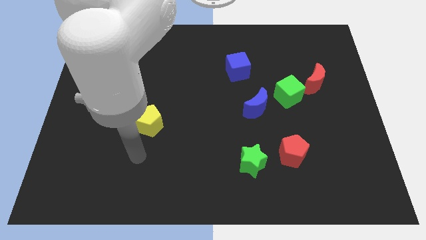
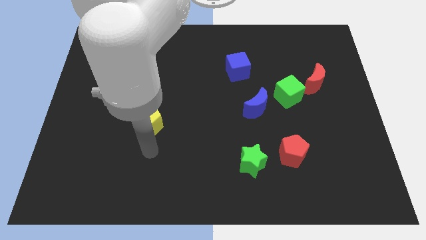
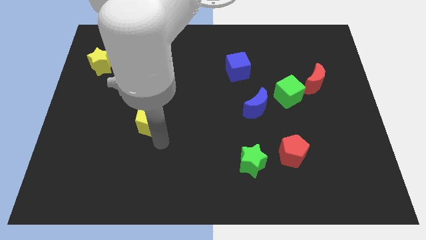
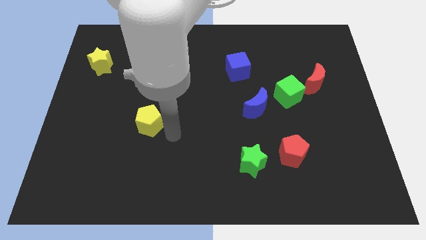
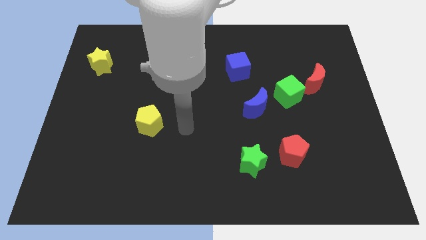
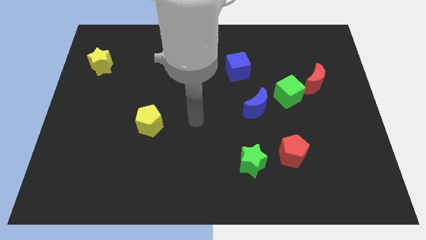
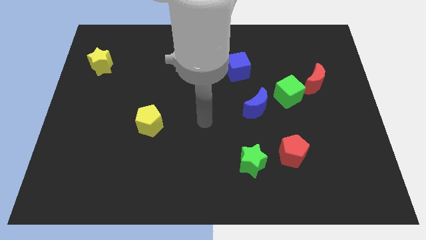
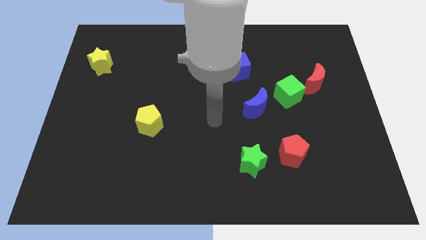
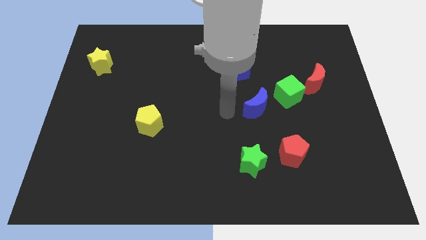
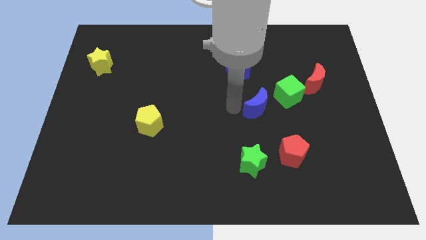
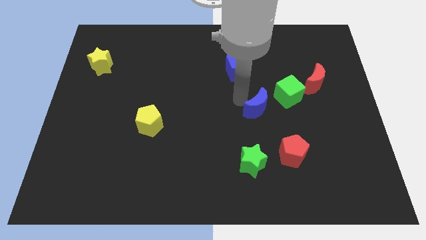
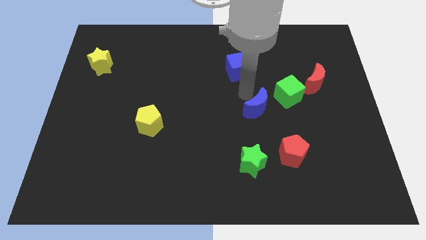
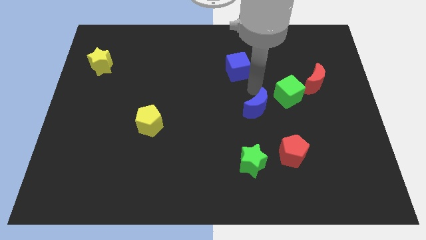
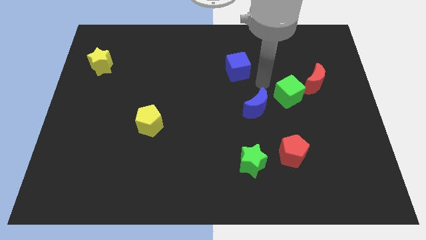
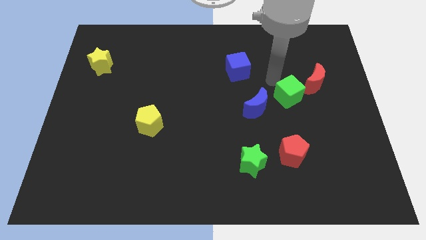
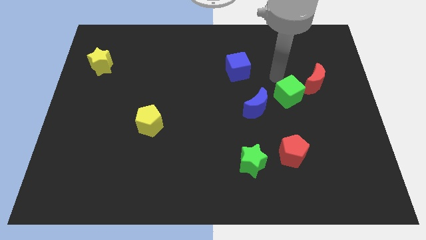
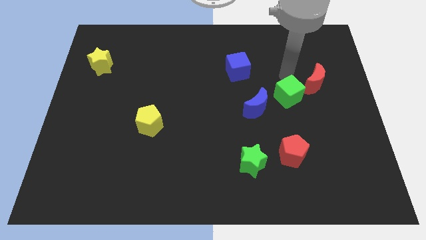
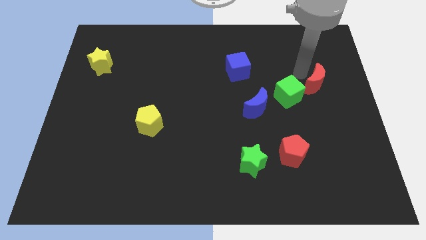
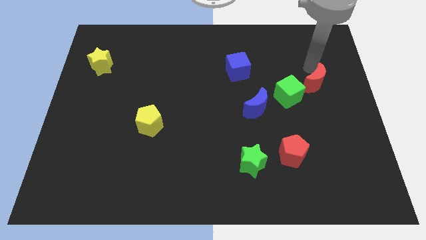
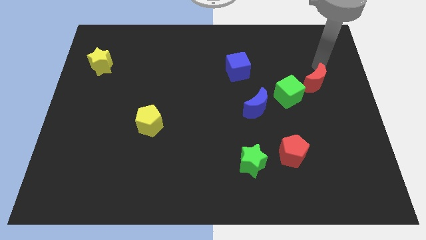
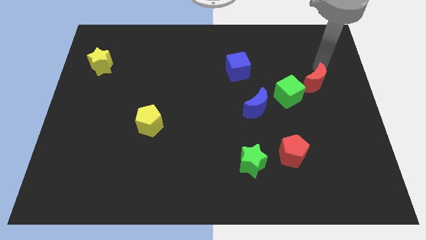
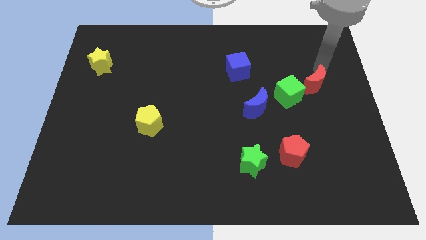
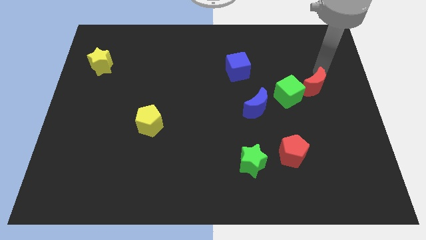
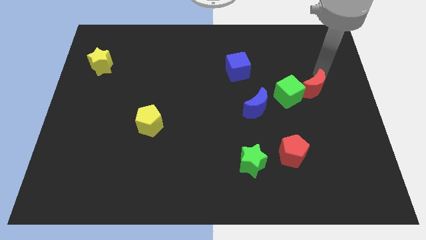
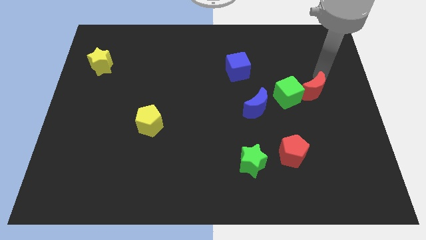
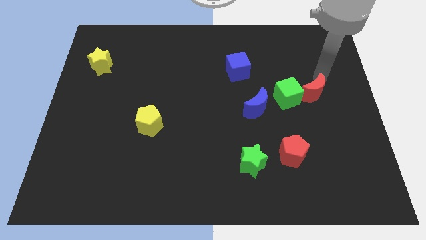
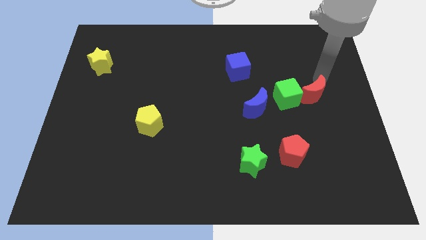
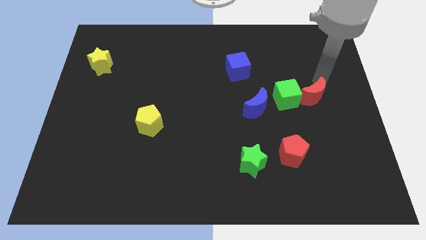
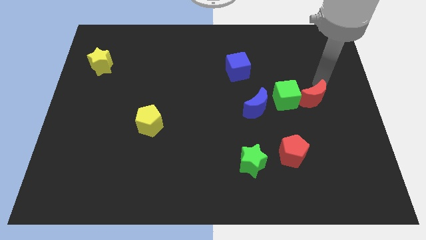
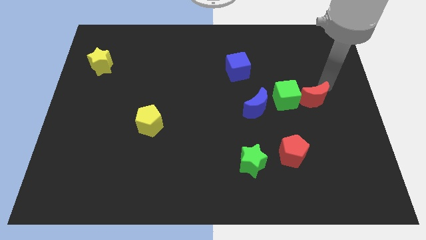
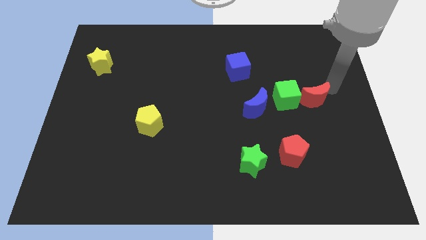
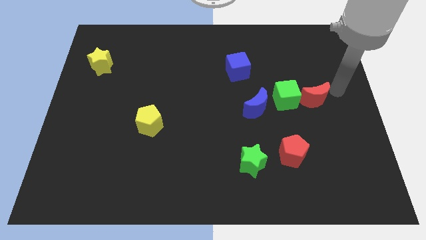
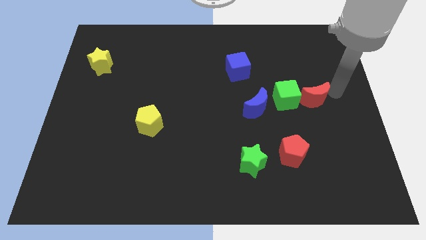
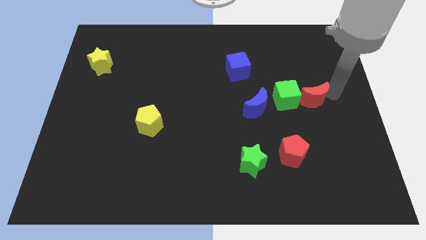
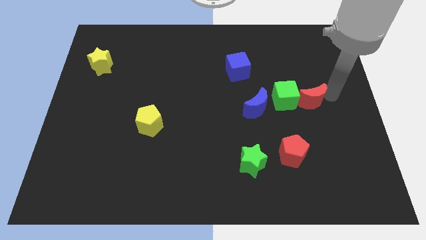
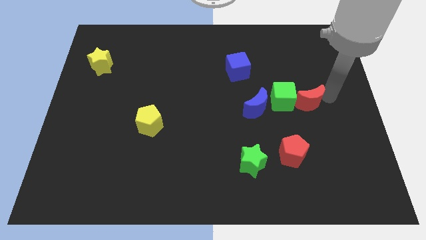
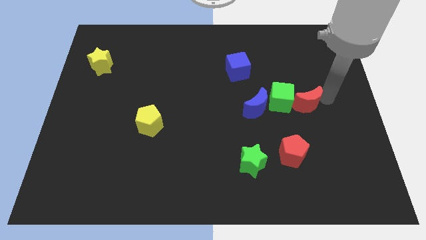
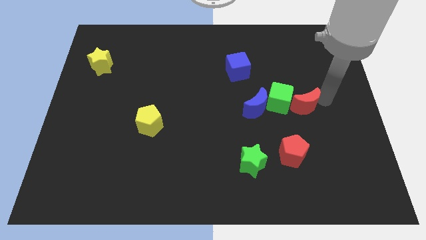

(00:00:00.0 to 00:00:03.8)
move the red moon downwards and left slightly

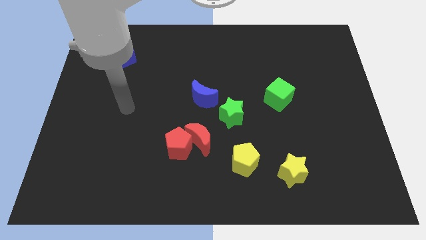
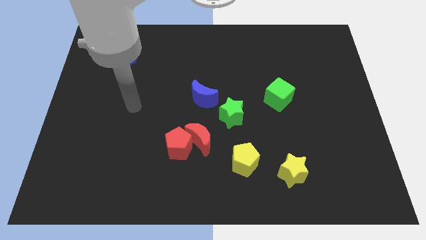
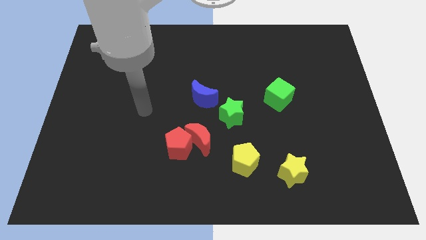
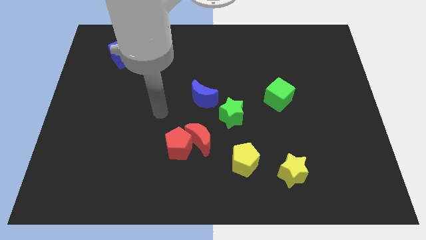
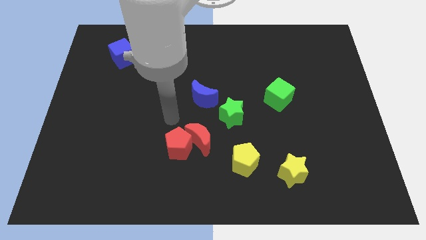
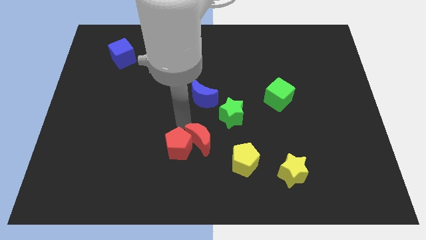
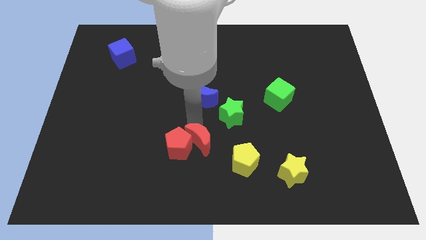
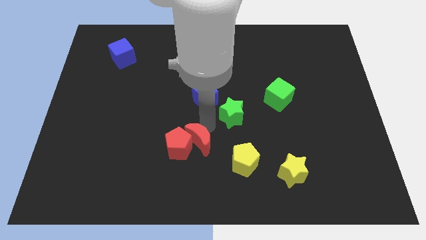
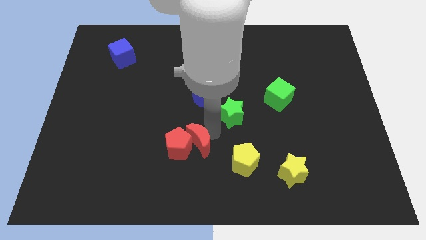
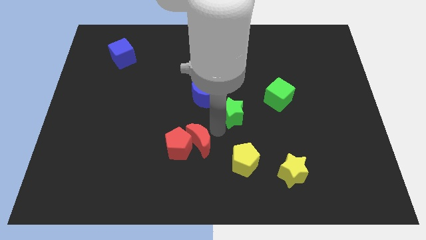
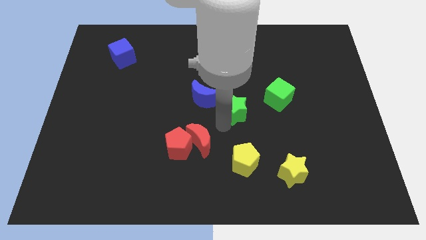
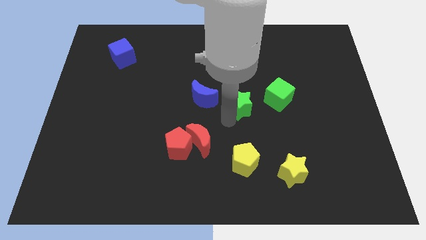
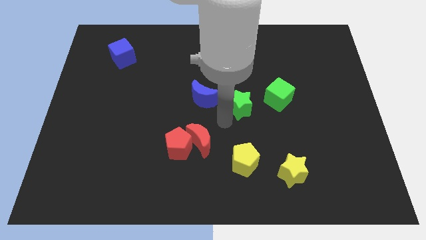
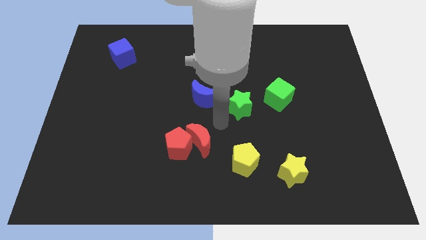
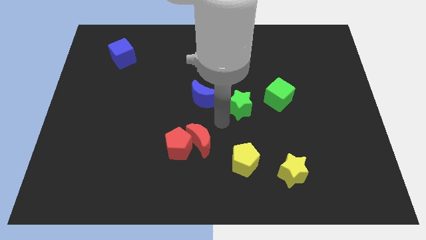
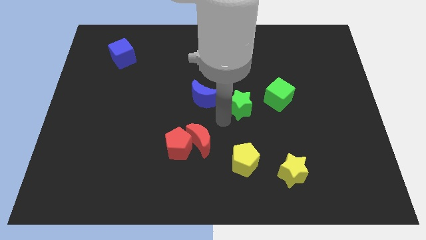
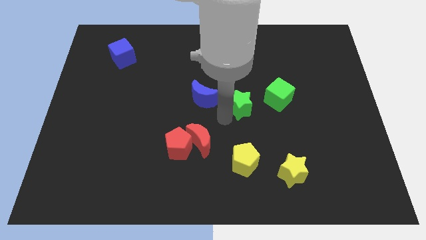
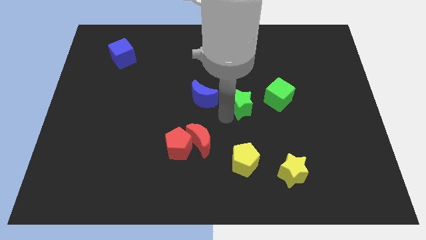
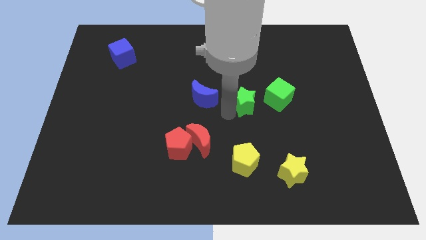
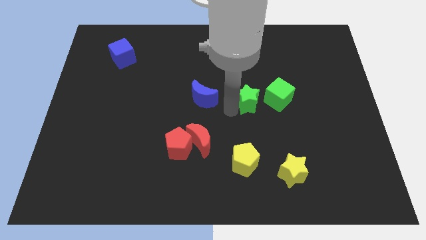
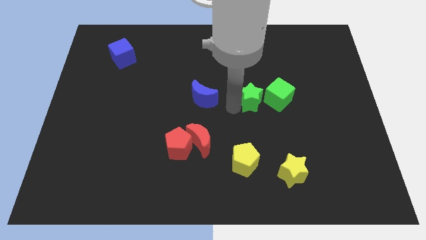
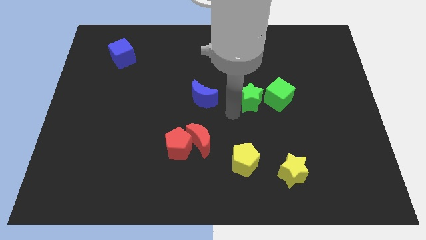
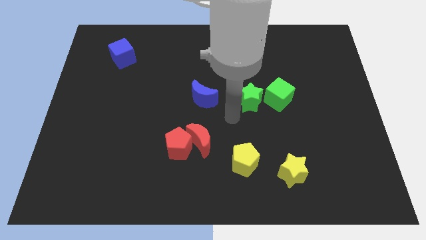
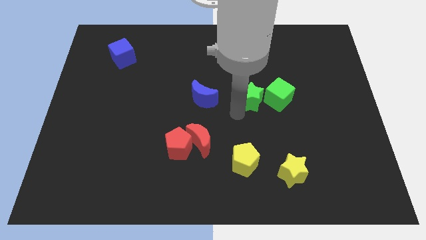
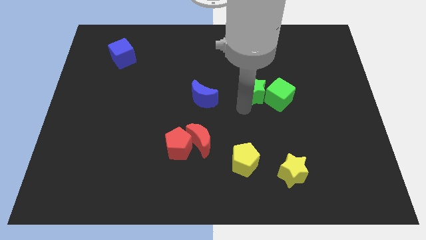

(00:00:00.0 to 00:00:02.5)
push the green star diagonally upwards and right somewhat
